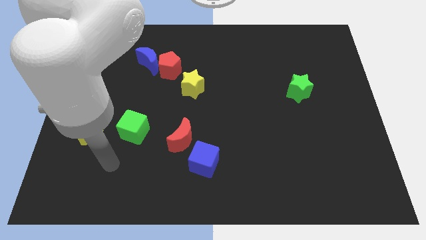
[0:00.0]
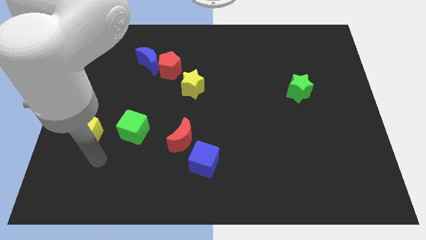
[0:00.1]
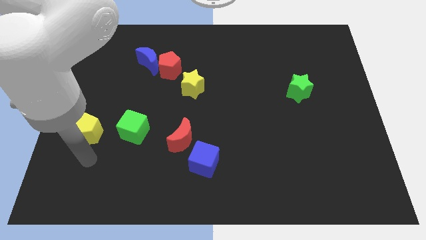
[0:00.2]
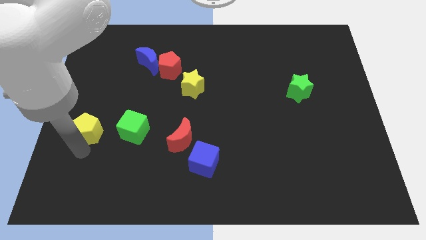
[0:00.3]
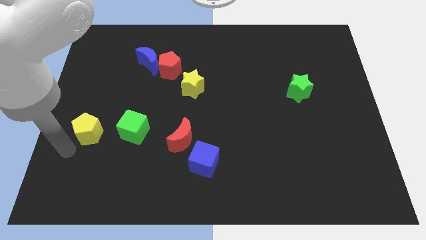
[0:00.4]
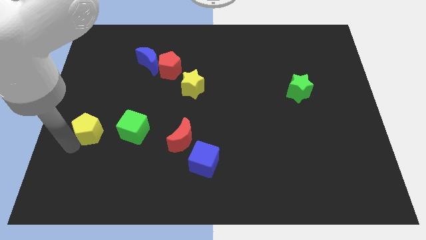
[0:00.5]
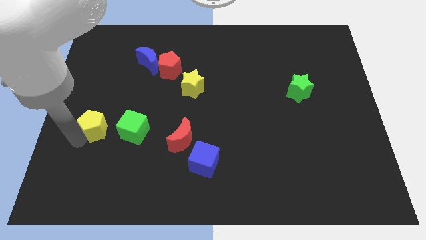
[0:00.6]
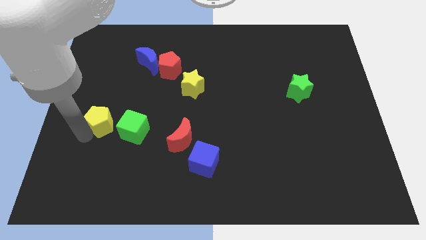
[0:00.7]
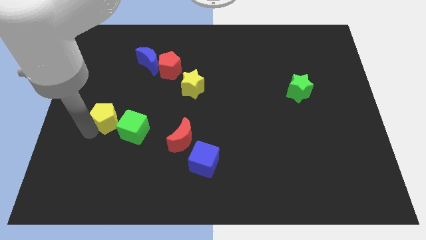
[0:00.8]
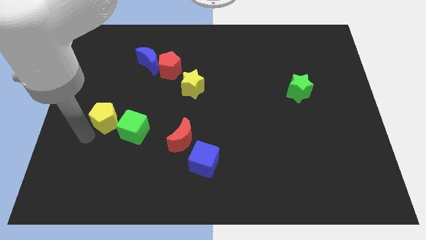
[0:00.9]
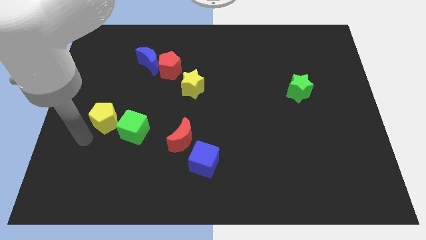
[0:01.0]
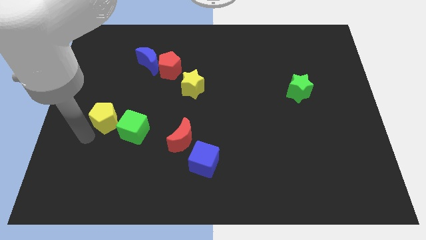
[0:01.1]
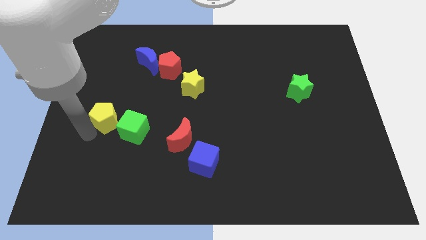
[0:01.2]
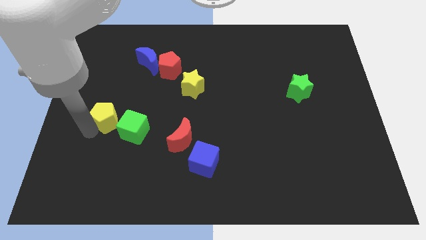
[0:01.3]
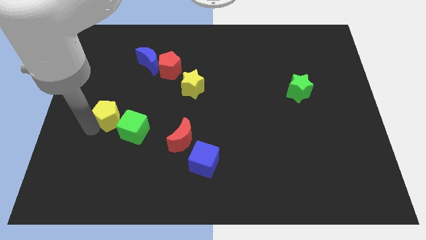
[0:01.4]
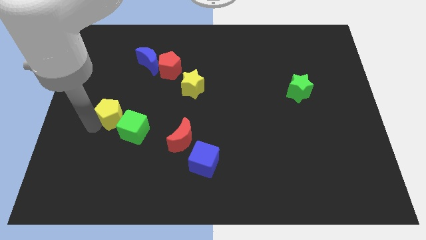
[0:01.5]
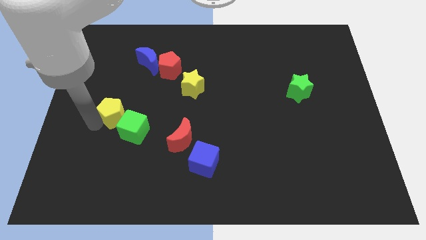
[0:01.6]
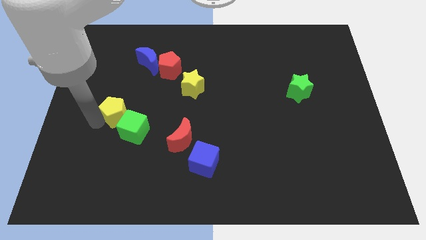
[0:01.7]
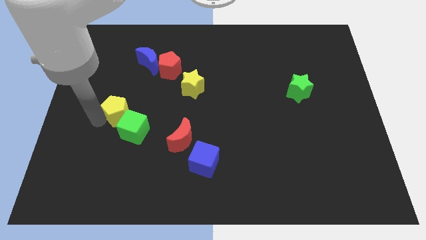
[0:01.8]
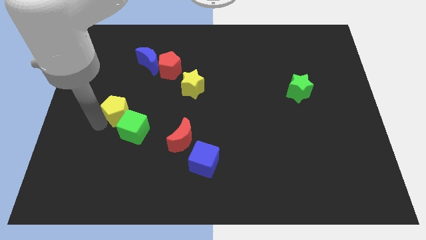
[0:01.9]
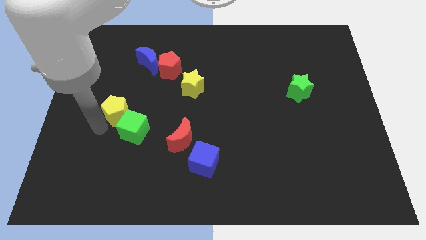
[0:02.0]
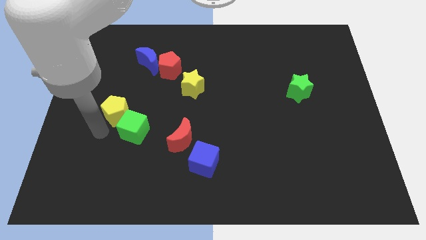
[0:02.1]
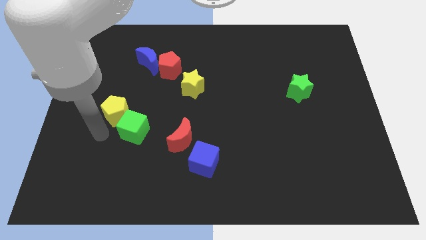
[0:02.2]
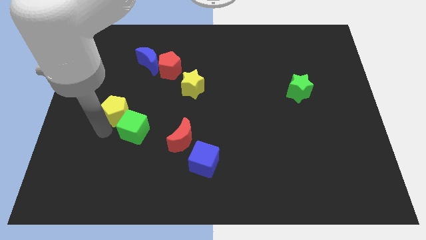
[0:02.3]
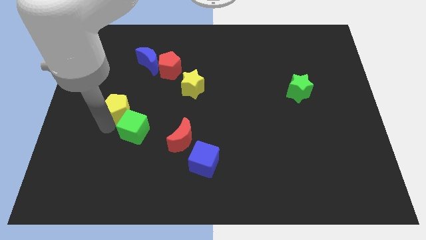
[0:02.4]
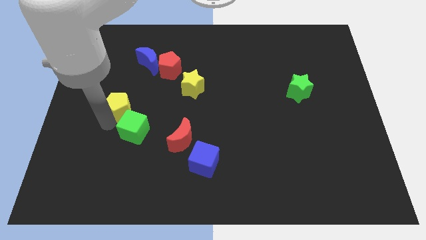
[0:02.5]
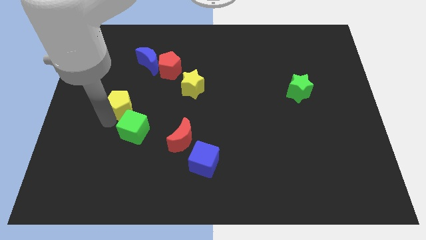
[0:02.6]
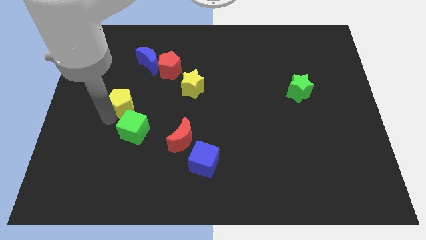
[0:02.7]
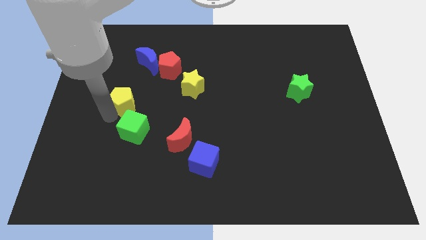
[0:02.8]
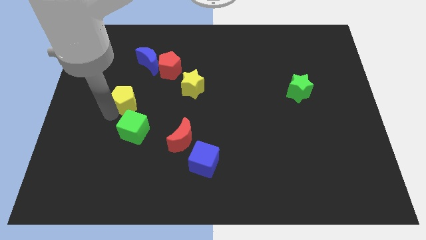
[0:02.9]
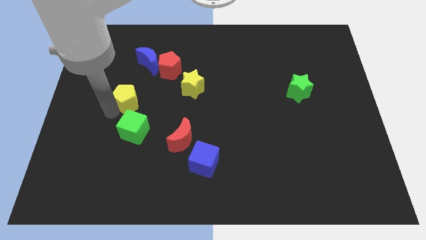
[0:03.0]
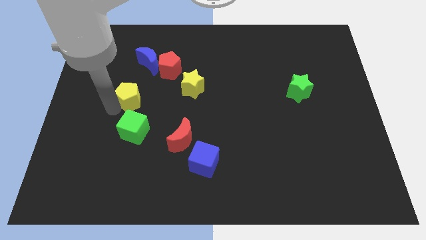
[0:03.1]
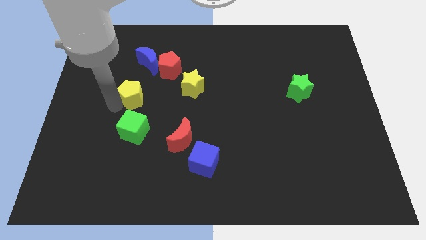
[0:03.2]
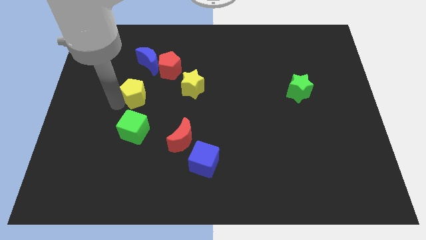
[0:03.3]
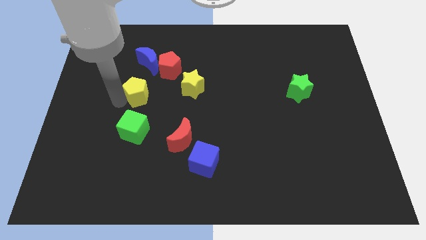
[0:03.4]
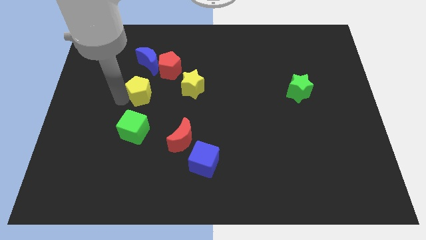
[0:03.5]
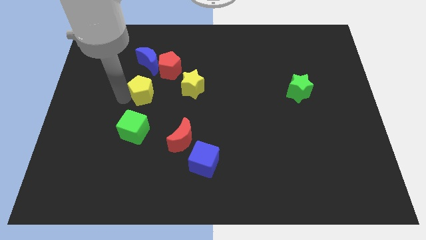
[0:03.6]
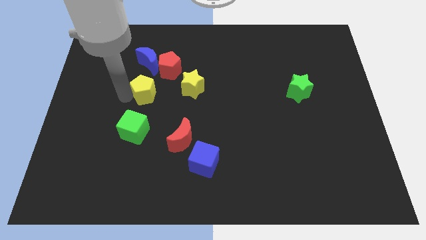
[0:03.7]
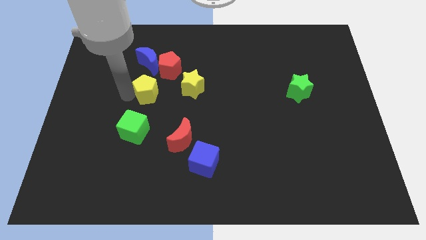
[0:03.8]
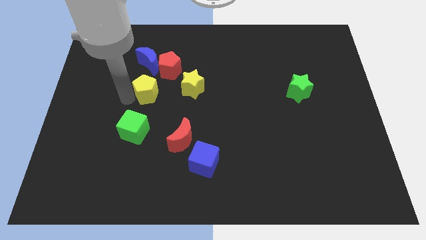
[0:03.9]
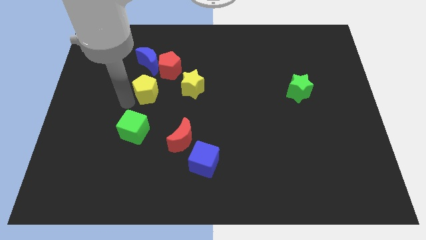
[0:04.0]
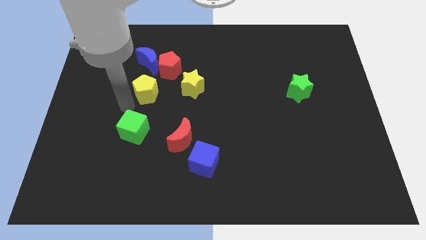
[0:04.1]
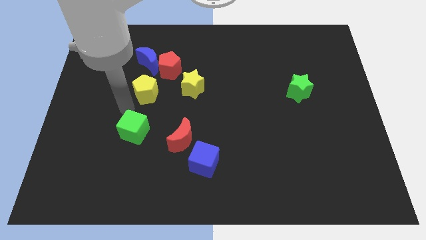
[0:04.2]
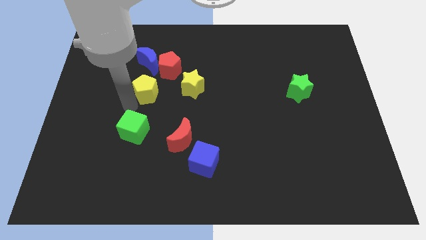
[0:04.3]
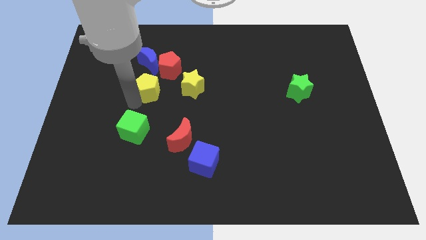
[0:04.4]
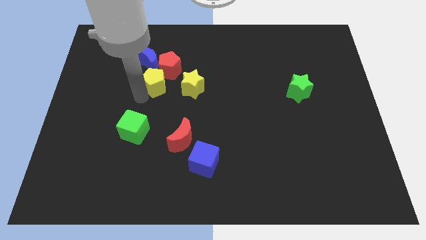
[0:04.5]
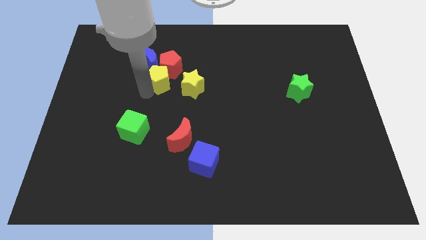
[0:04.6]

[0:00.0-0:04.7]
push the yellow pentagon close to the red pentagon

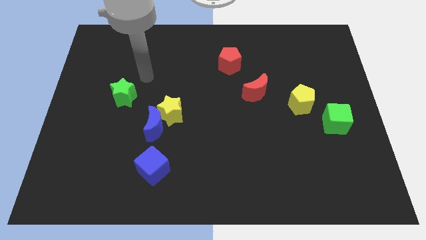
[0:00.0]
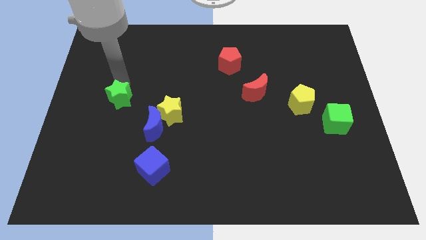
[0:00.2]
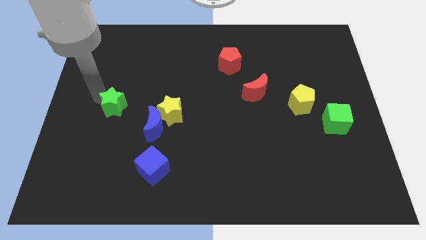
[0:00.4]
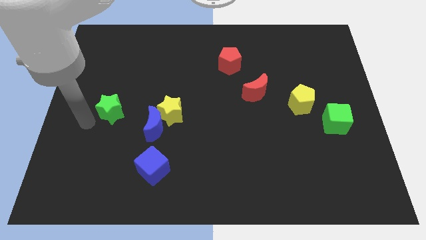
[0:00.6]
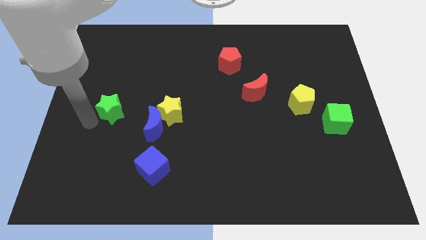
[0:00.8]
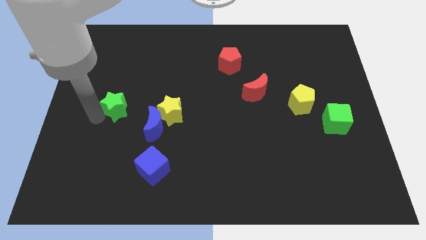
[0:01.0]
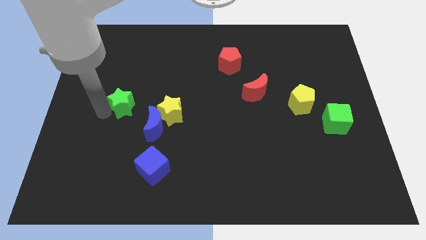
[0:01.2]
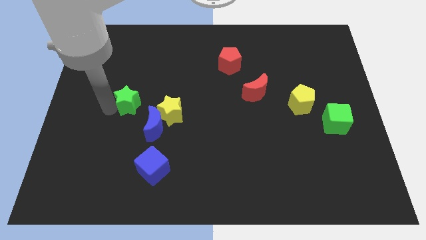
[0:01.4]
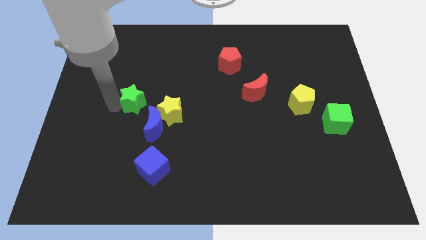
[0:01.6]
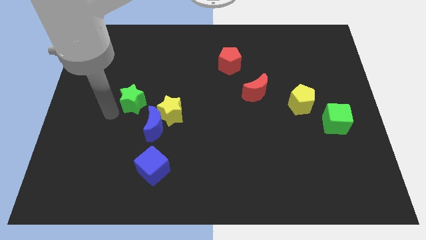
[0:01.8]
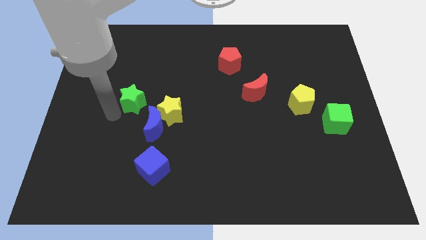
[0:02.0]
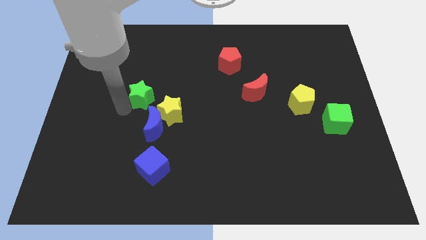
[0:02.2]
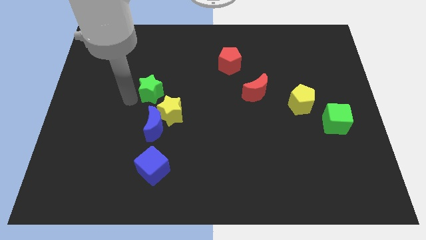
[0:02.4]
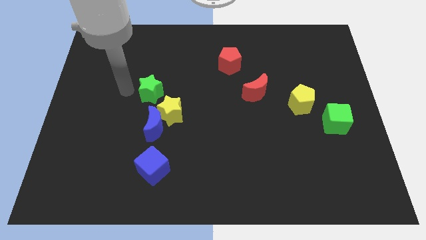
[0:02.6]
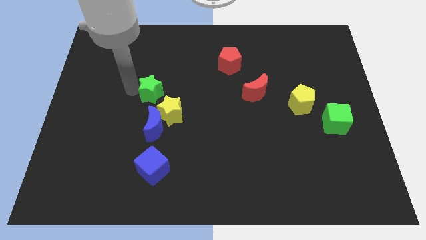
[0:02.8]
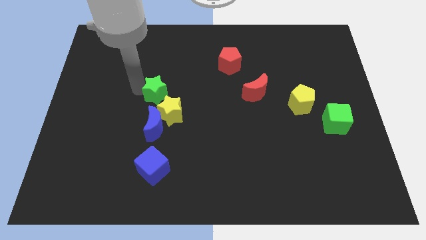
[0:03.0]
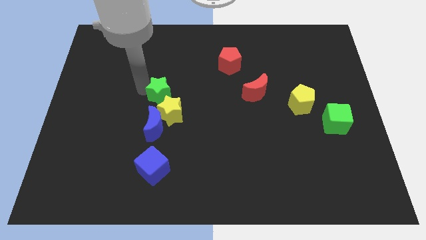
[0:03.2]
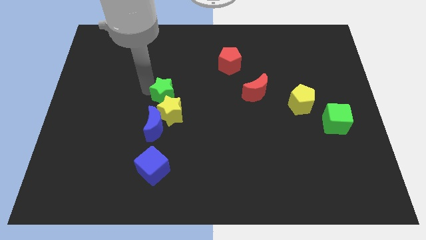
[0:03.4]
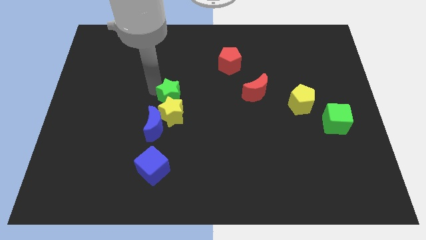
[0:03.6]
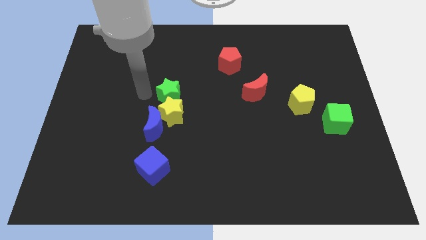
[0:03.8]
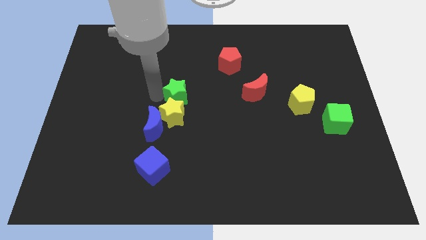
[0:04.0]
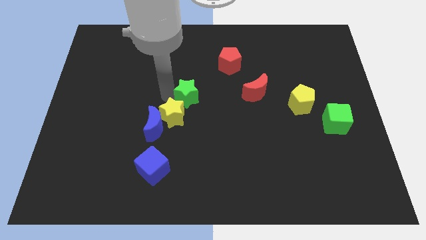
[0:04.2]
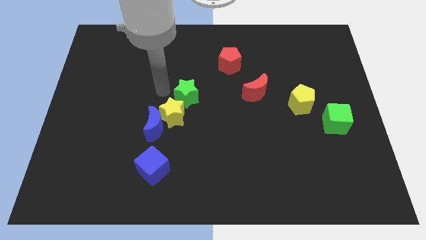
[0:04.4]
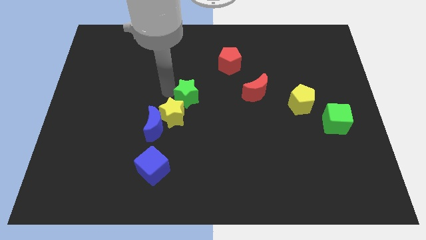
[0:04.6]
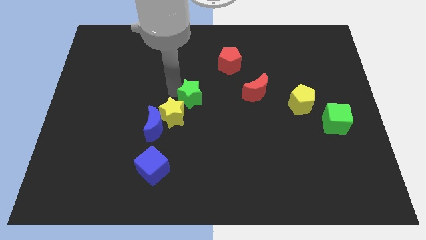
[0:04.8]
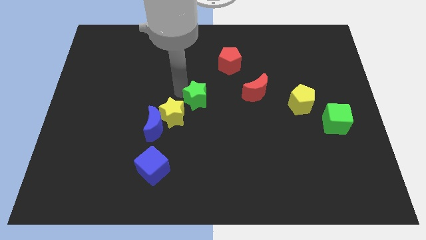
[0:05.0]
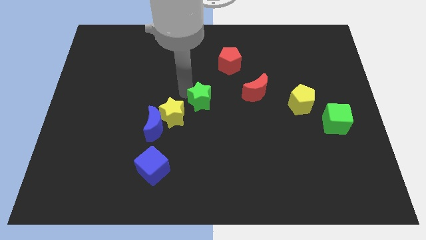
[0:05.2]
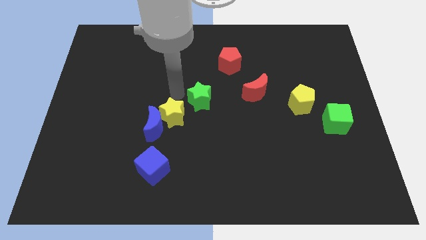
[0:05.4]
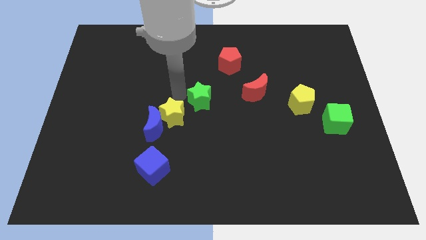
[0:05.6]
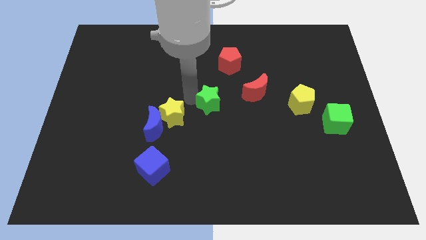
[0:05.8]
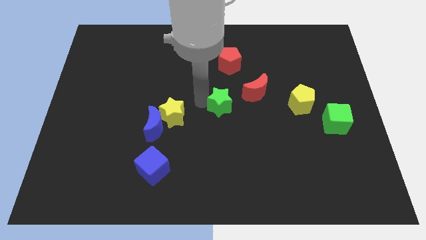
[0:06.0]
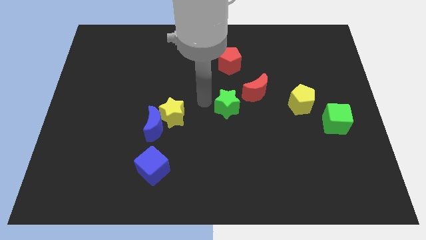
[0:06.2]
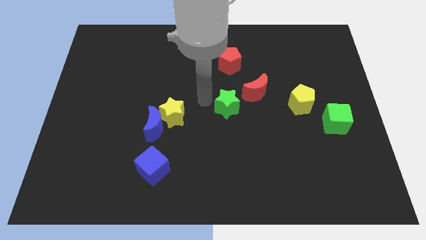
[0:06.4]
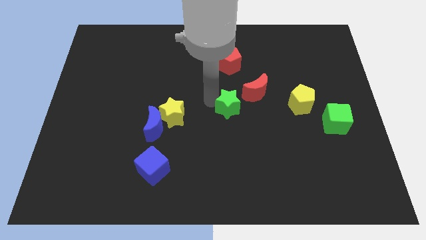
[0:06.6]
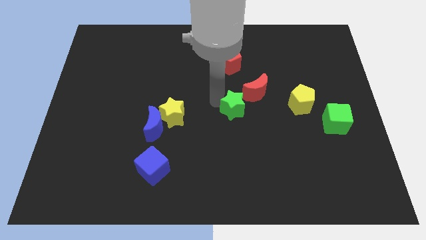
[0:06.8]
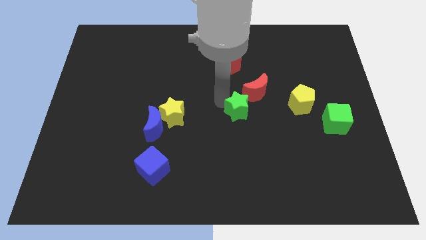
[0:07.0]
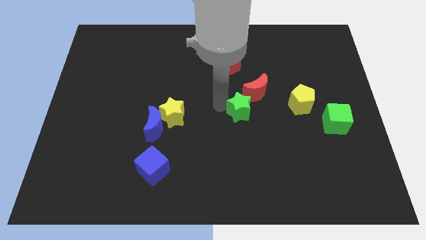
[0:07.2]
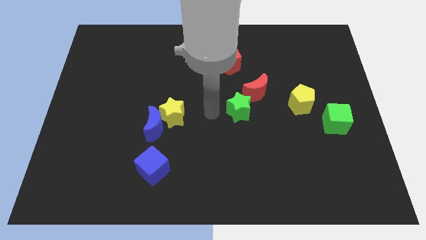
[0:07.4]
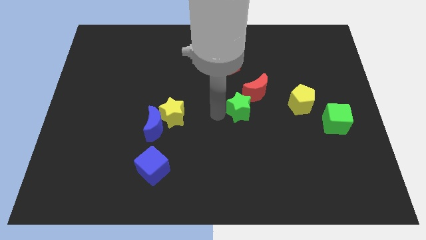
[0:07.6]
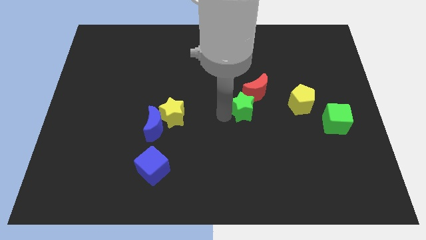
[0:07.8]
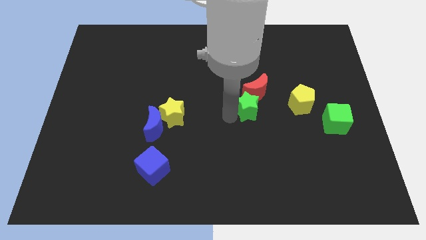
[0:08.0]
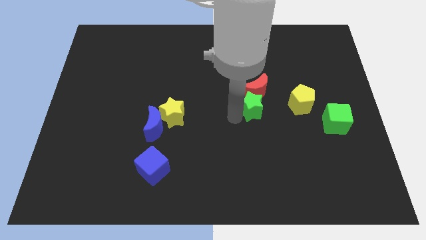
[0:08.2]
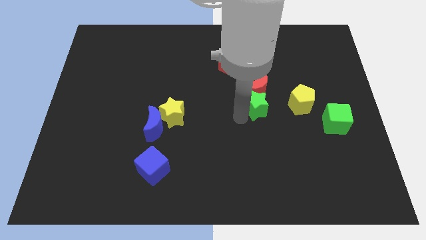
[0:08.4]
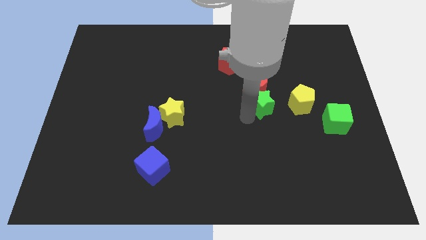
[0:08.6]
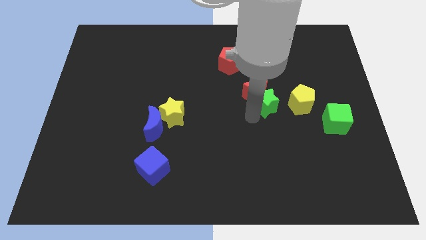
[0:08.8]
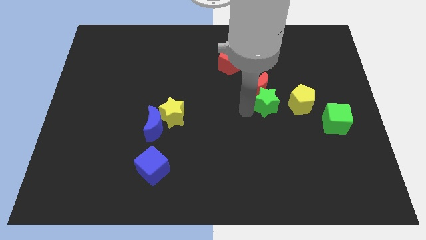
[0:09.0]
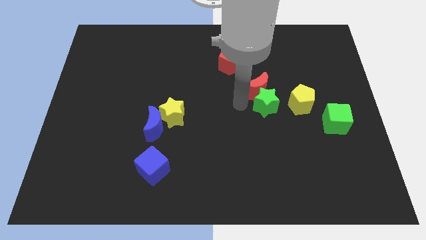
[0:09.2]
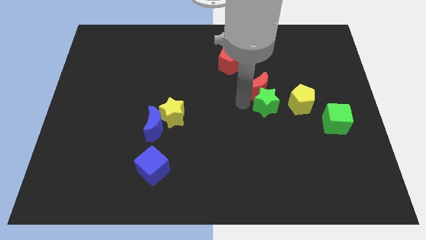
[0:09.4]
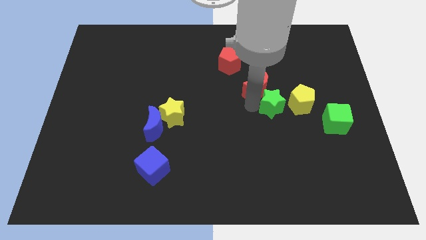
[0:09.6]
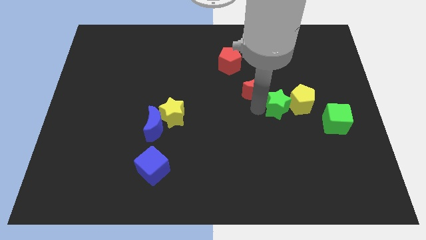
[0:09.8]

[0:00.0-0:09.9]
move the green star to the yellow pentagon
